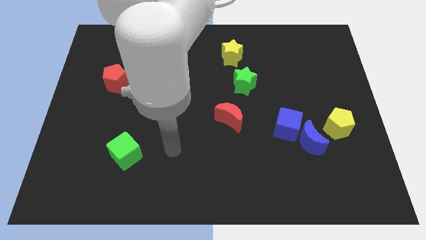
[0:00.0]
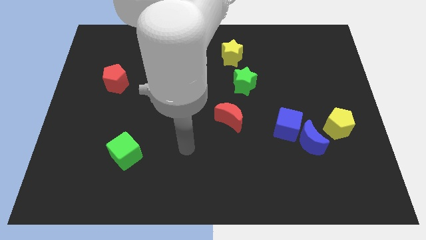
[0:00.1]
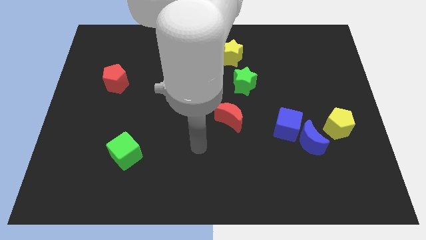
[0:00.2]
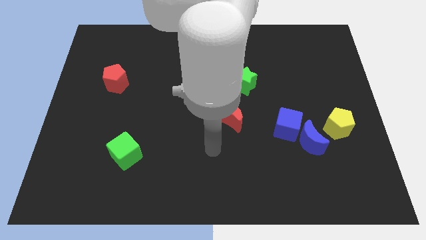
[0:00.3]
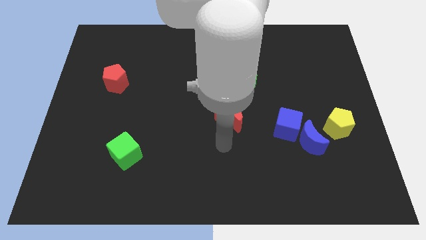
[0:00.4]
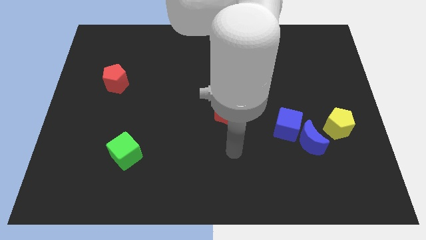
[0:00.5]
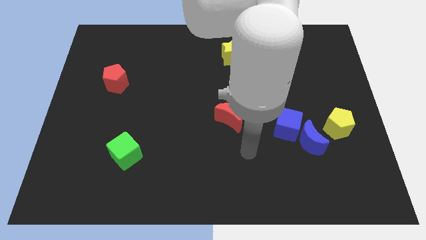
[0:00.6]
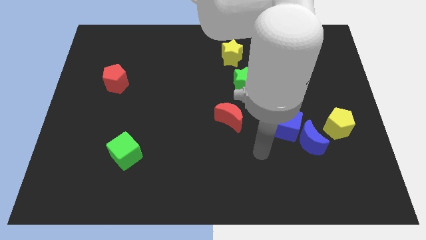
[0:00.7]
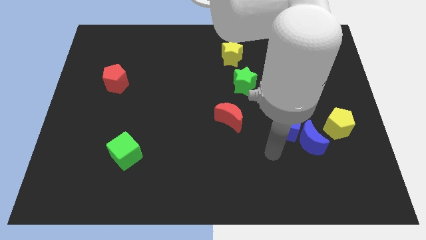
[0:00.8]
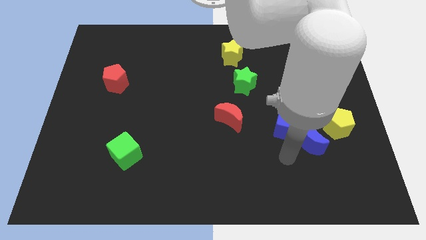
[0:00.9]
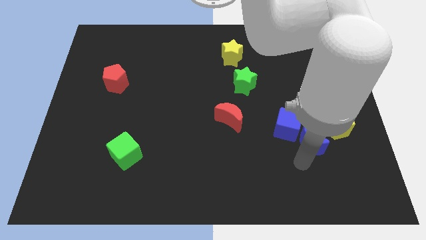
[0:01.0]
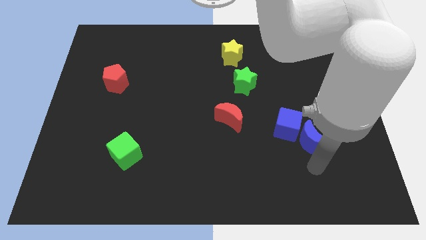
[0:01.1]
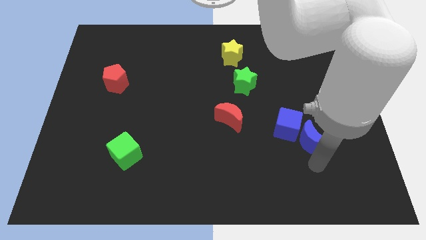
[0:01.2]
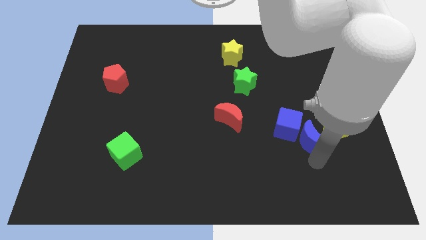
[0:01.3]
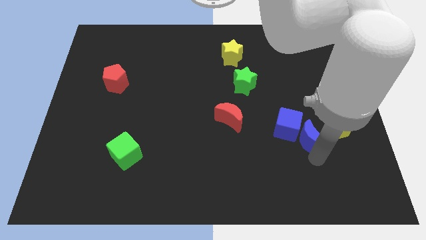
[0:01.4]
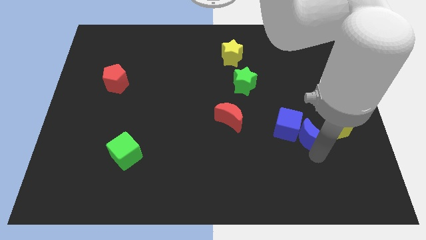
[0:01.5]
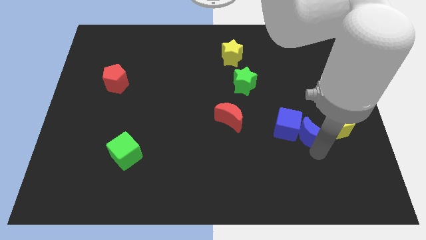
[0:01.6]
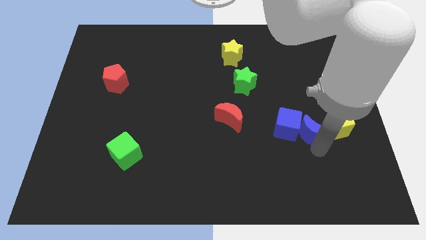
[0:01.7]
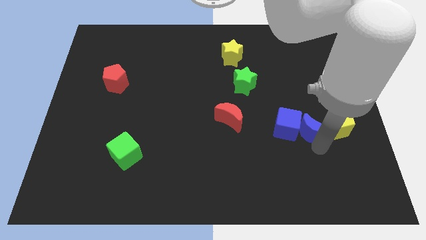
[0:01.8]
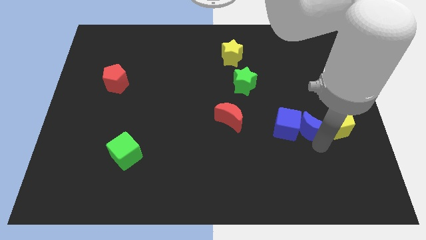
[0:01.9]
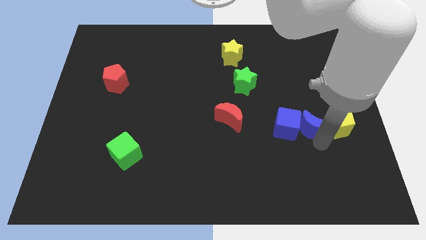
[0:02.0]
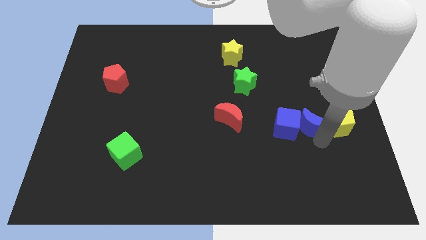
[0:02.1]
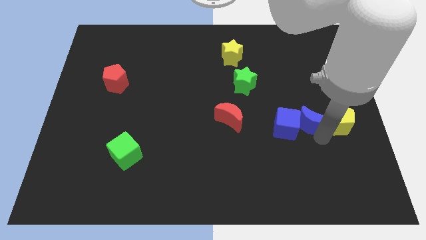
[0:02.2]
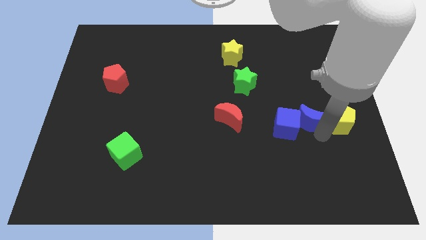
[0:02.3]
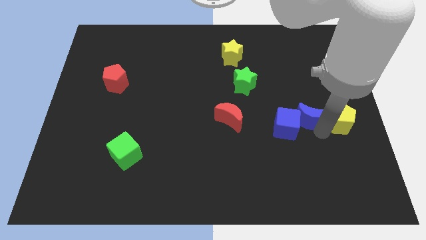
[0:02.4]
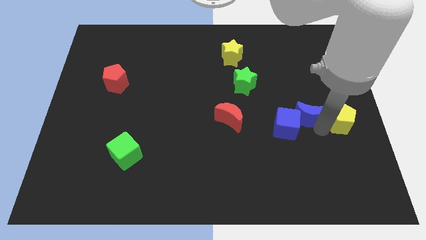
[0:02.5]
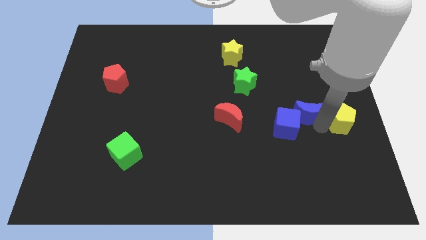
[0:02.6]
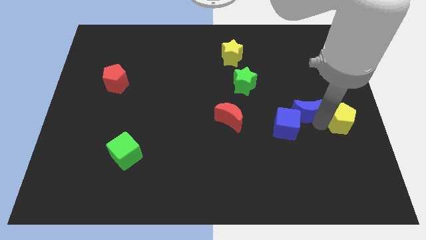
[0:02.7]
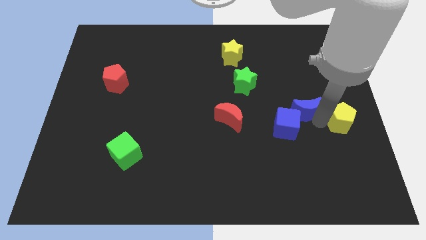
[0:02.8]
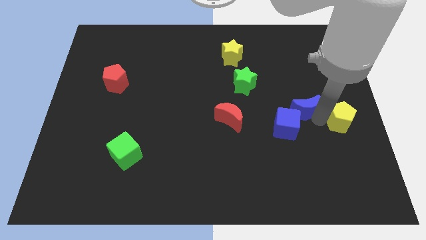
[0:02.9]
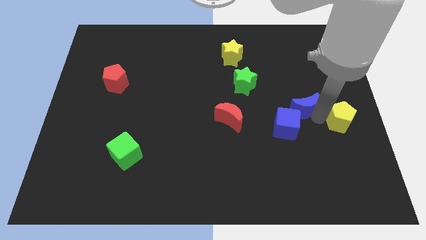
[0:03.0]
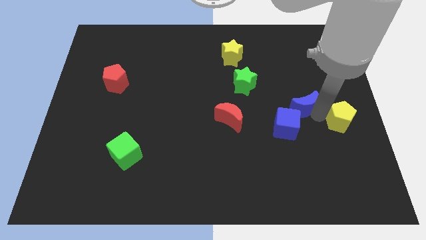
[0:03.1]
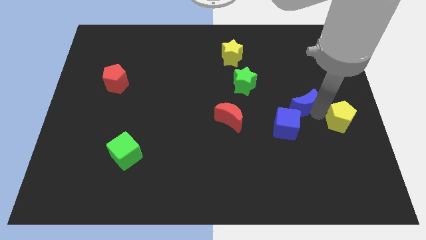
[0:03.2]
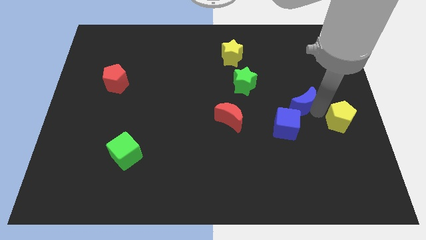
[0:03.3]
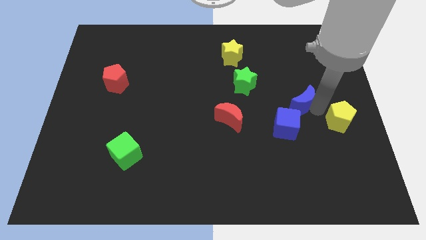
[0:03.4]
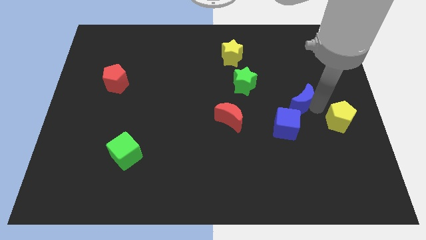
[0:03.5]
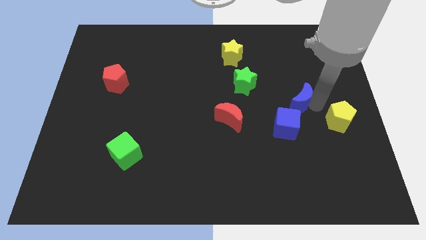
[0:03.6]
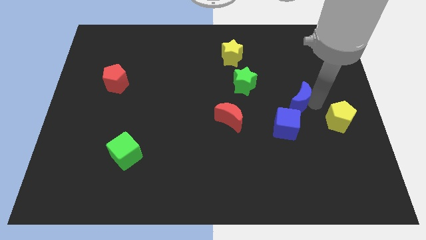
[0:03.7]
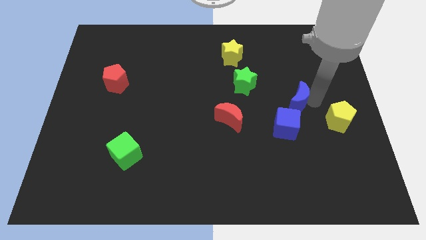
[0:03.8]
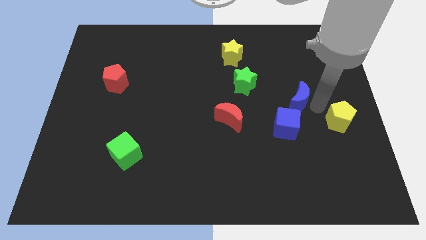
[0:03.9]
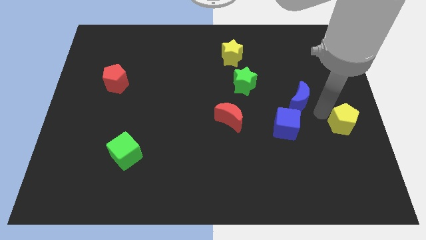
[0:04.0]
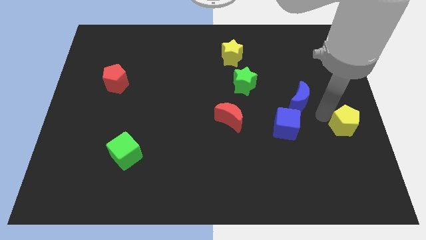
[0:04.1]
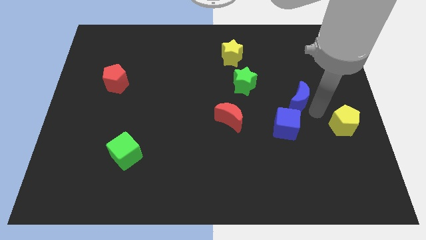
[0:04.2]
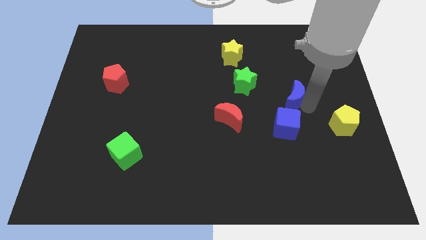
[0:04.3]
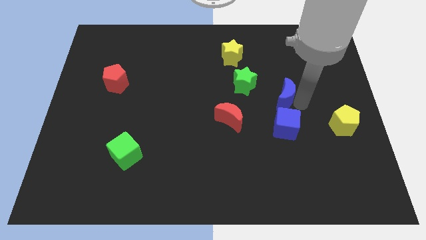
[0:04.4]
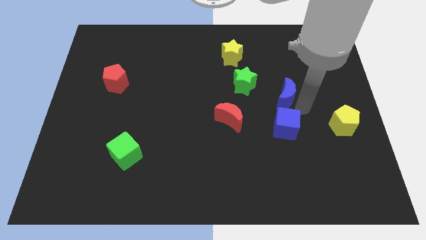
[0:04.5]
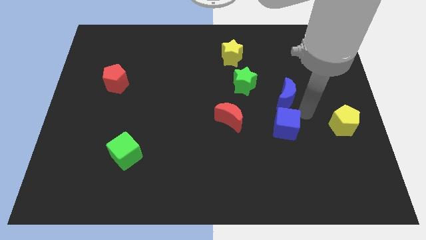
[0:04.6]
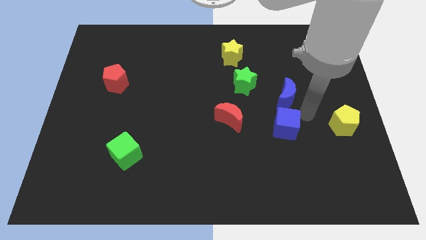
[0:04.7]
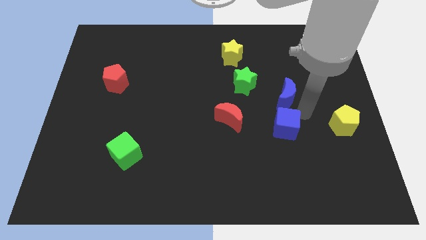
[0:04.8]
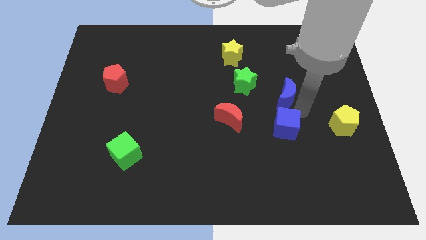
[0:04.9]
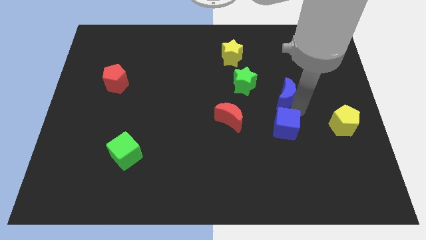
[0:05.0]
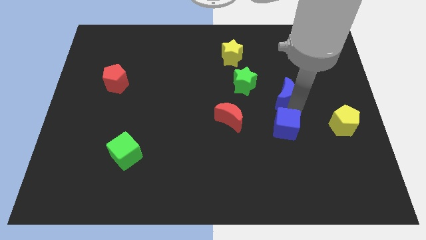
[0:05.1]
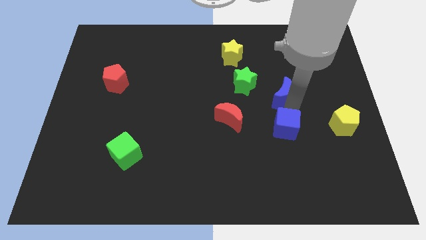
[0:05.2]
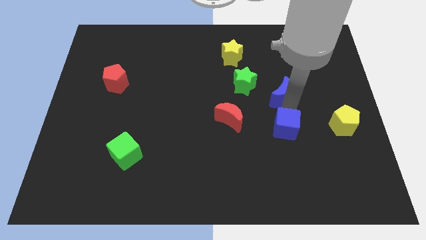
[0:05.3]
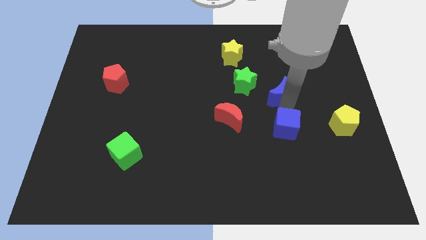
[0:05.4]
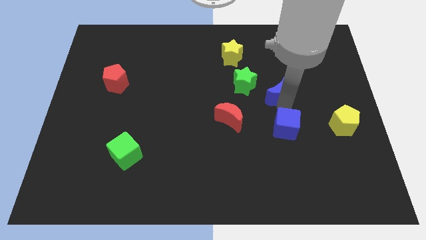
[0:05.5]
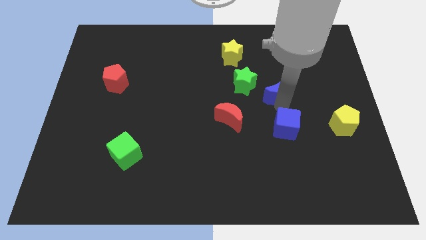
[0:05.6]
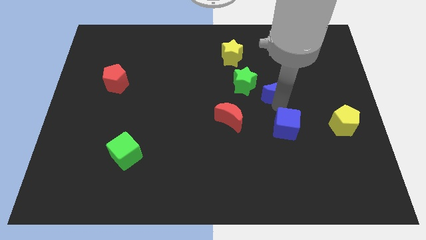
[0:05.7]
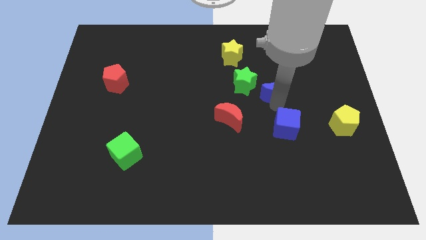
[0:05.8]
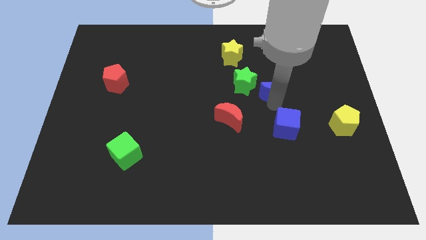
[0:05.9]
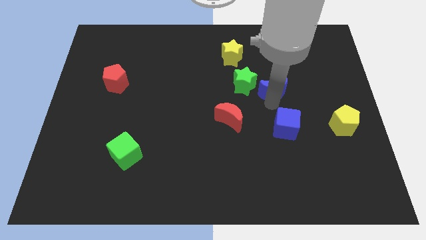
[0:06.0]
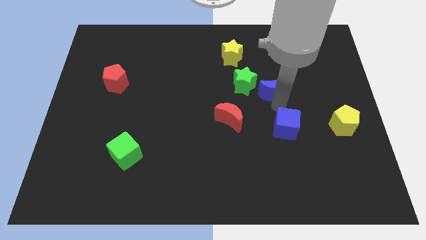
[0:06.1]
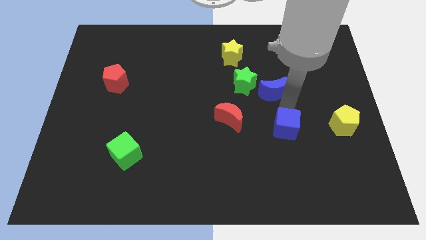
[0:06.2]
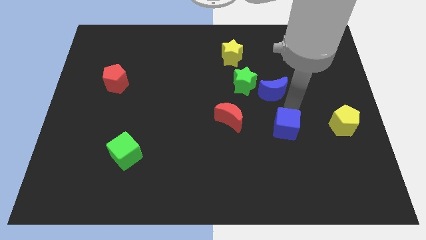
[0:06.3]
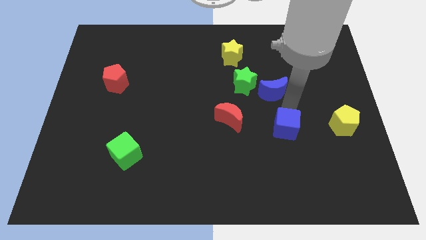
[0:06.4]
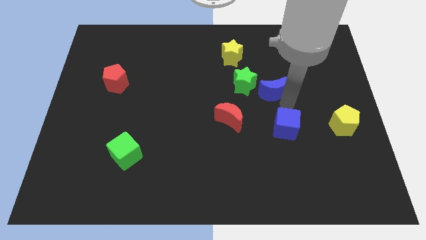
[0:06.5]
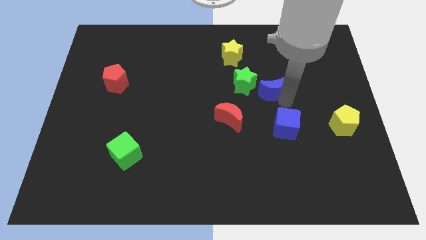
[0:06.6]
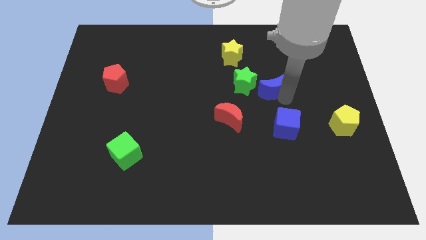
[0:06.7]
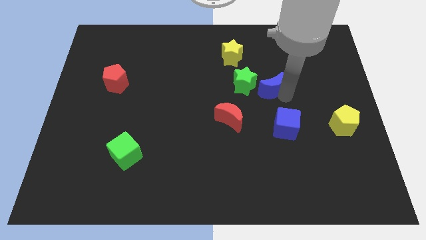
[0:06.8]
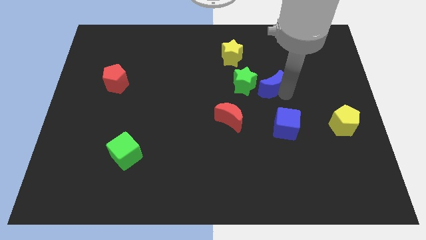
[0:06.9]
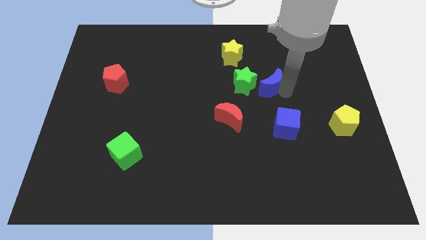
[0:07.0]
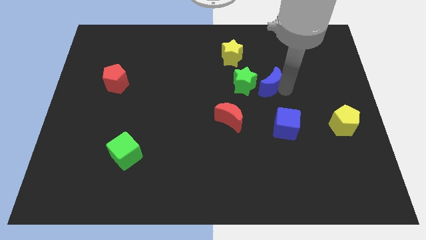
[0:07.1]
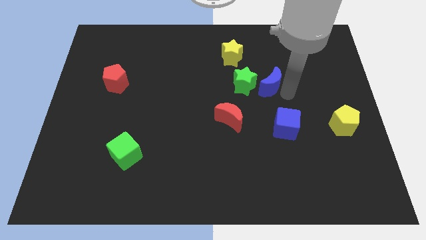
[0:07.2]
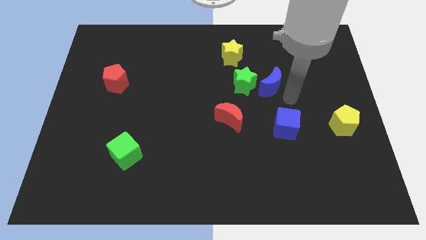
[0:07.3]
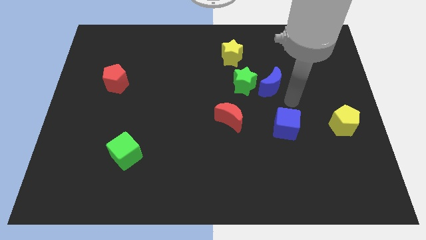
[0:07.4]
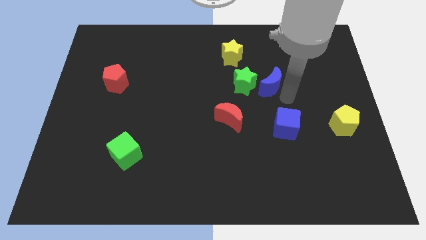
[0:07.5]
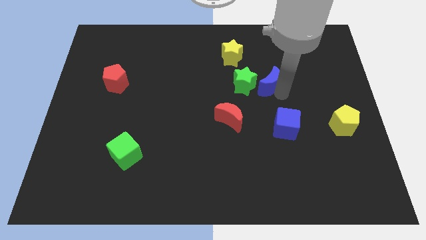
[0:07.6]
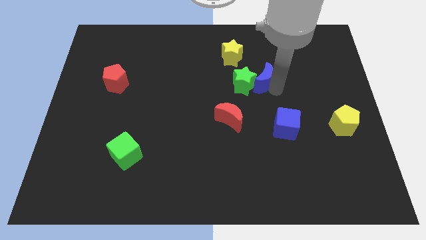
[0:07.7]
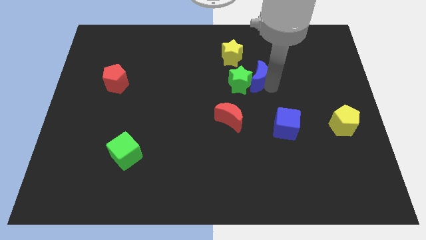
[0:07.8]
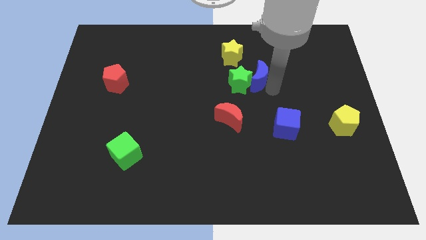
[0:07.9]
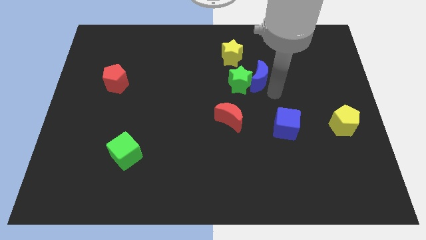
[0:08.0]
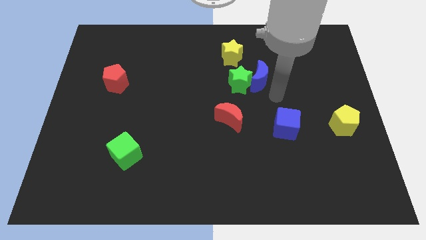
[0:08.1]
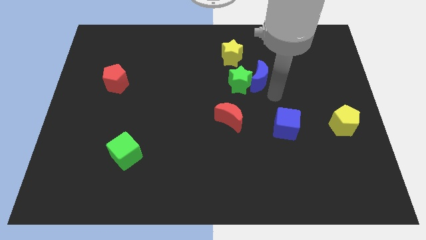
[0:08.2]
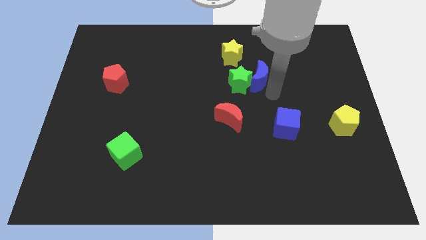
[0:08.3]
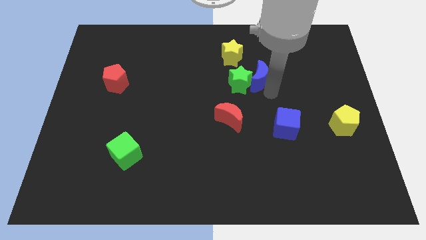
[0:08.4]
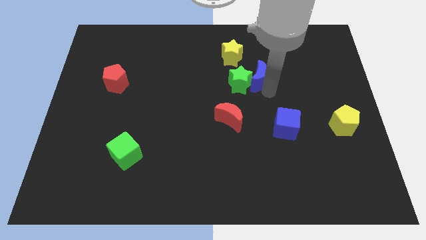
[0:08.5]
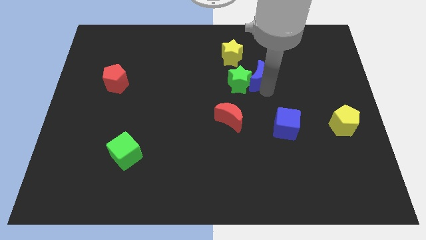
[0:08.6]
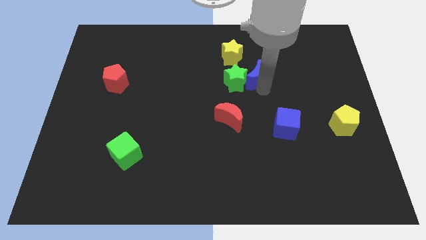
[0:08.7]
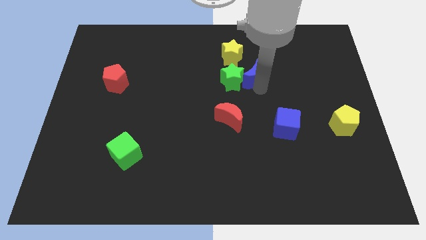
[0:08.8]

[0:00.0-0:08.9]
move the blue moon diagonally up and left
